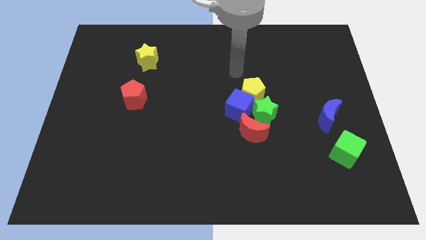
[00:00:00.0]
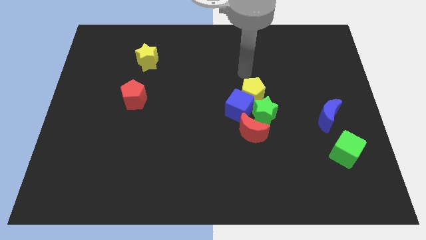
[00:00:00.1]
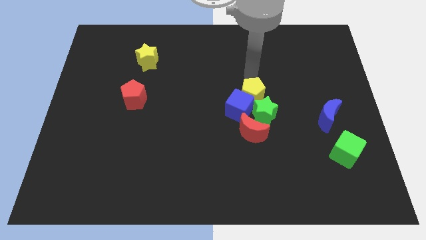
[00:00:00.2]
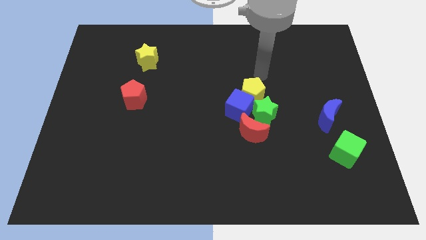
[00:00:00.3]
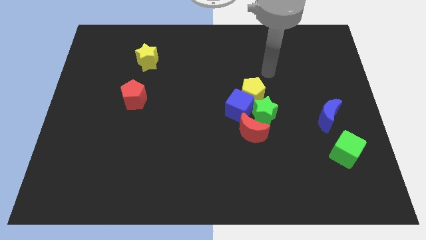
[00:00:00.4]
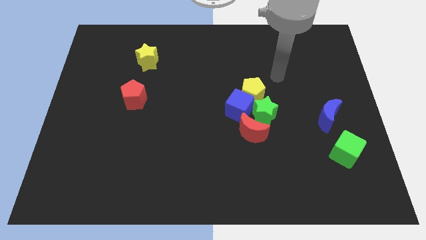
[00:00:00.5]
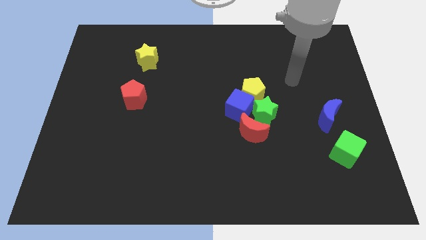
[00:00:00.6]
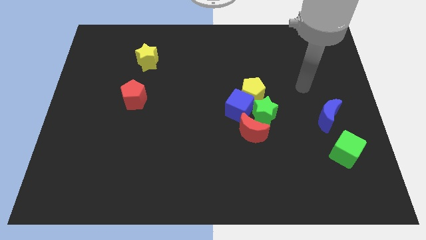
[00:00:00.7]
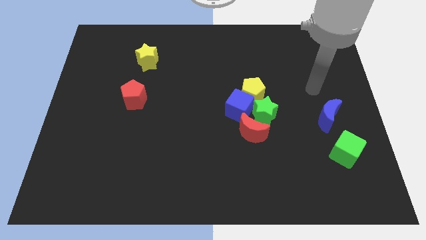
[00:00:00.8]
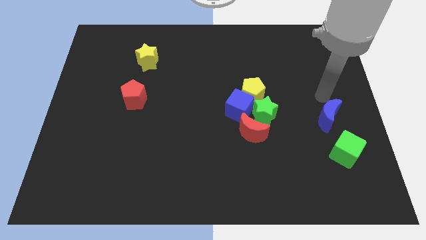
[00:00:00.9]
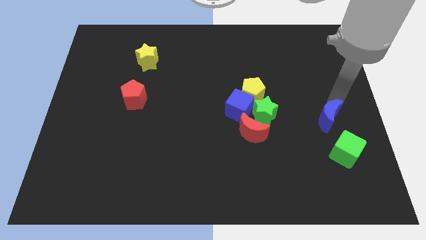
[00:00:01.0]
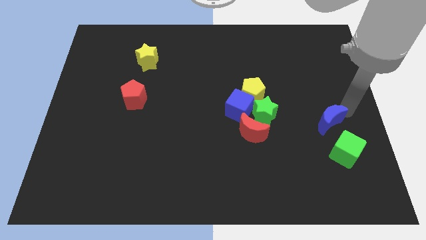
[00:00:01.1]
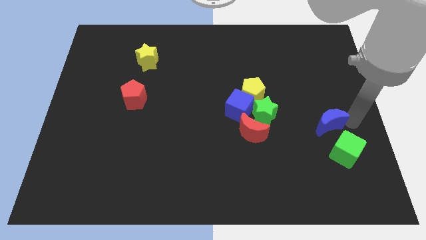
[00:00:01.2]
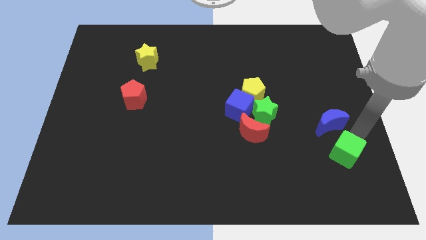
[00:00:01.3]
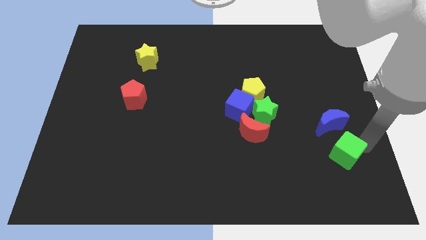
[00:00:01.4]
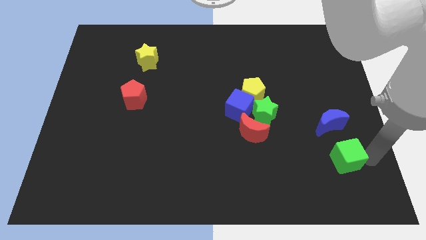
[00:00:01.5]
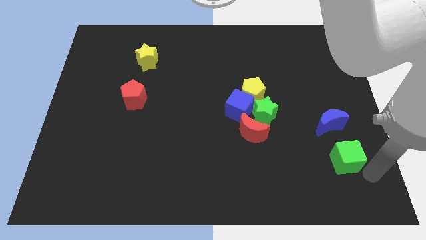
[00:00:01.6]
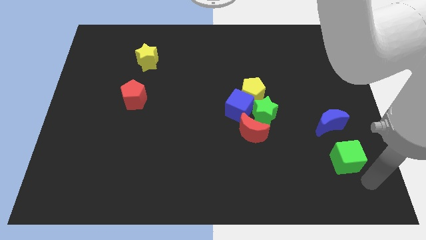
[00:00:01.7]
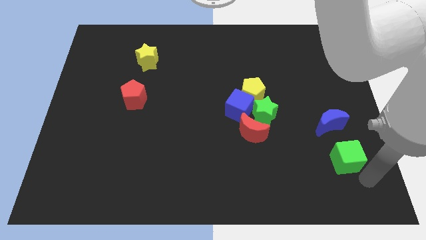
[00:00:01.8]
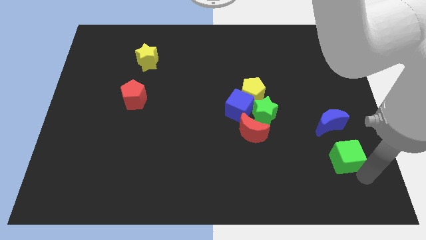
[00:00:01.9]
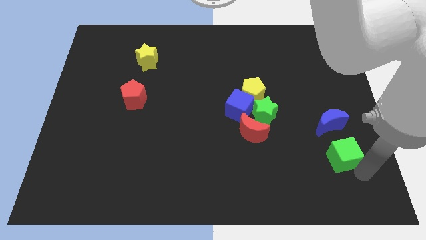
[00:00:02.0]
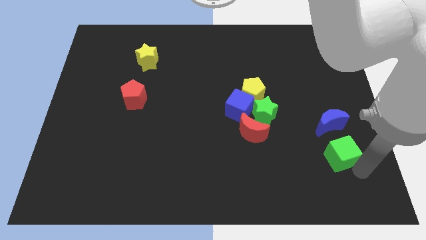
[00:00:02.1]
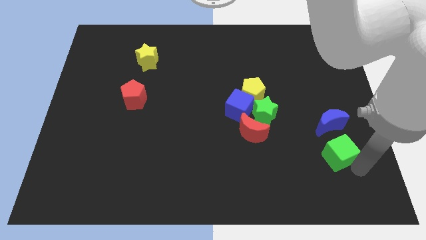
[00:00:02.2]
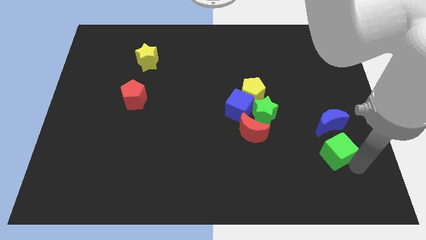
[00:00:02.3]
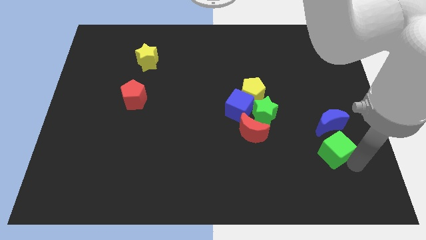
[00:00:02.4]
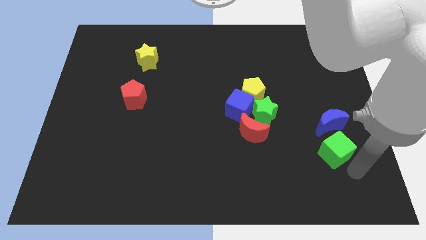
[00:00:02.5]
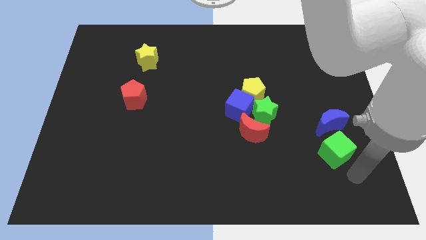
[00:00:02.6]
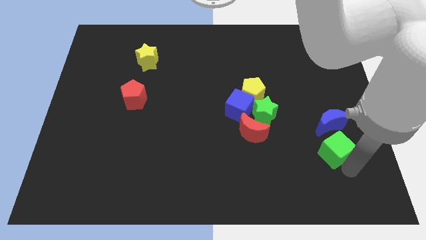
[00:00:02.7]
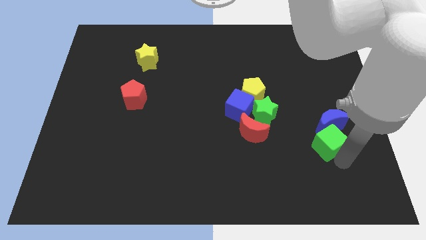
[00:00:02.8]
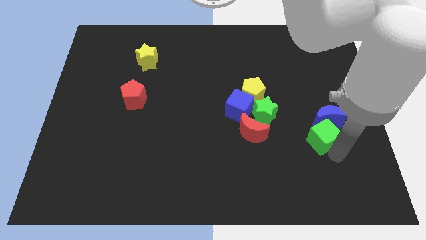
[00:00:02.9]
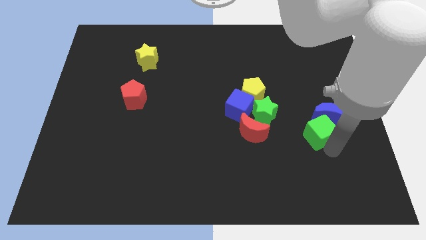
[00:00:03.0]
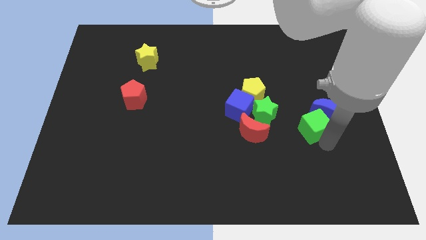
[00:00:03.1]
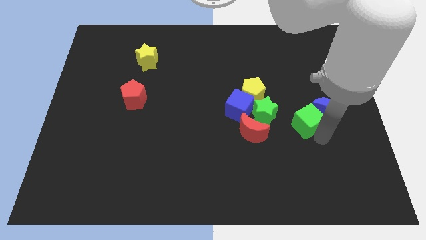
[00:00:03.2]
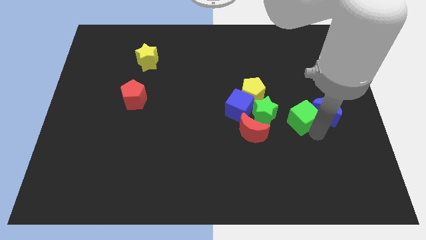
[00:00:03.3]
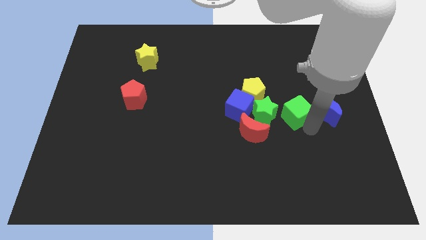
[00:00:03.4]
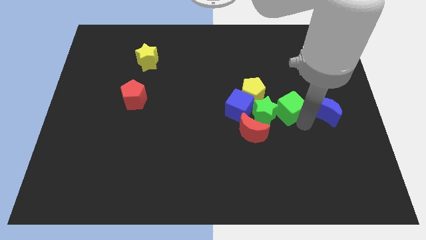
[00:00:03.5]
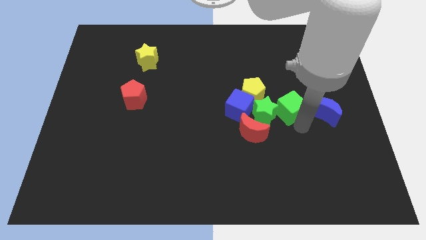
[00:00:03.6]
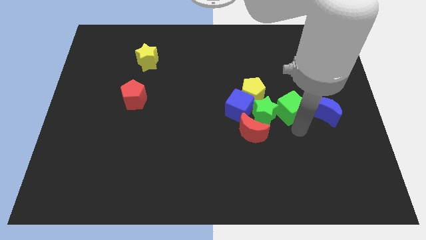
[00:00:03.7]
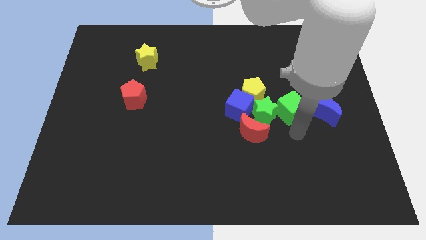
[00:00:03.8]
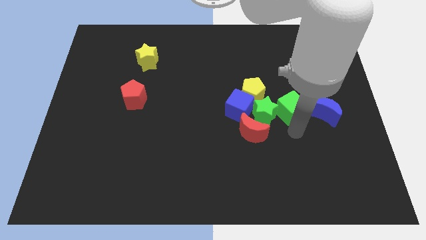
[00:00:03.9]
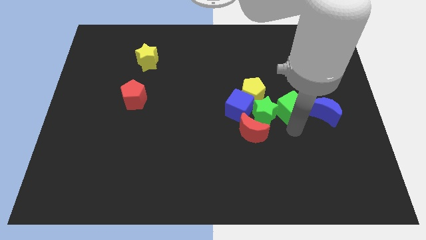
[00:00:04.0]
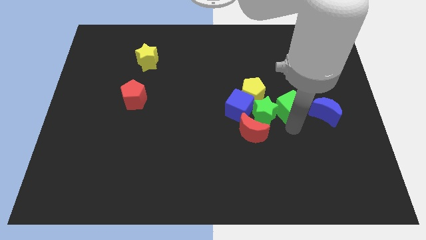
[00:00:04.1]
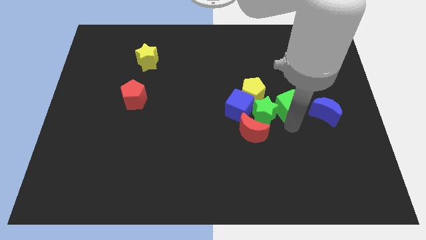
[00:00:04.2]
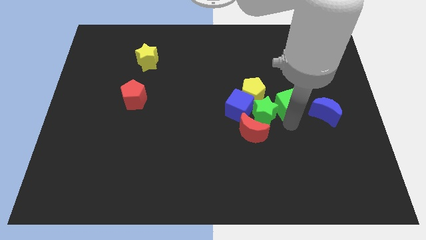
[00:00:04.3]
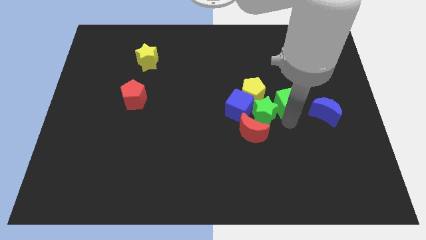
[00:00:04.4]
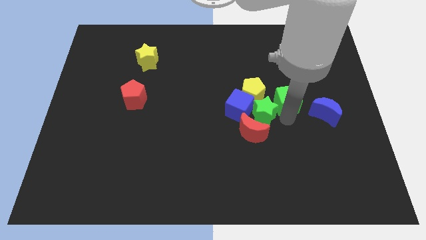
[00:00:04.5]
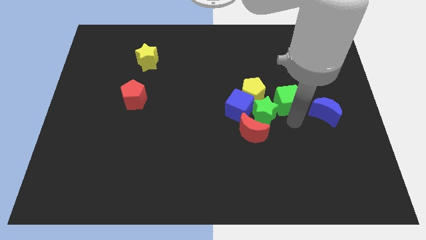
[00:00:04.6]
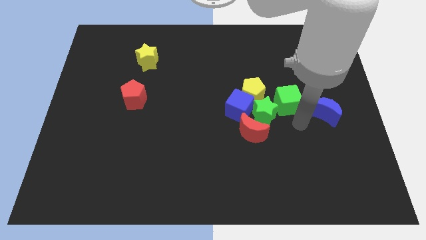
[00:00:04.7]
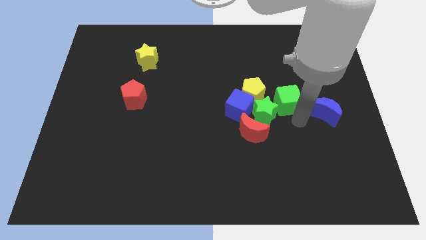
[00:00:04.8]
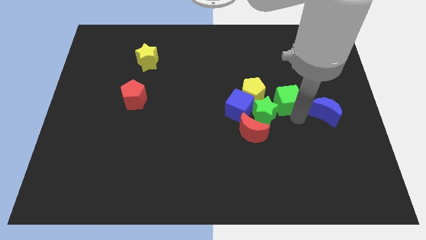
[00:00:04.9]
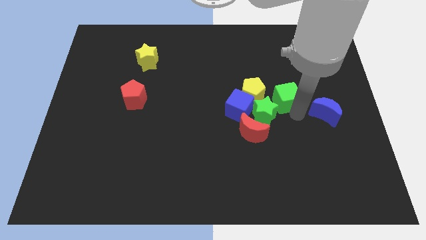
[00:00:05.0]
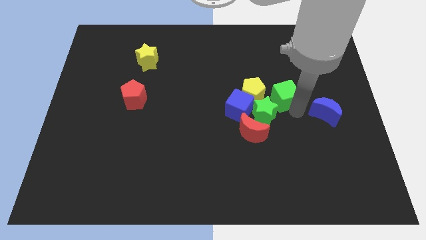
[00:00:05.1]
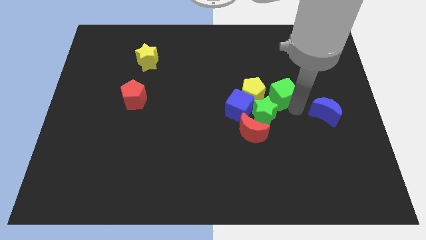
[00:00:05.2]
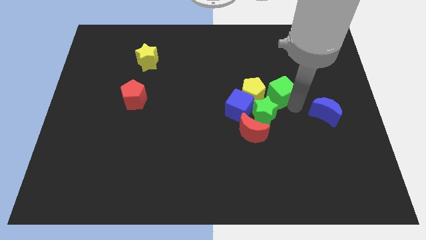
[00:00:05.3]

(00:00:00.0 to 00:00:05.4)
push the green cube diagonally up and to the right of the yellow pentagon

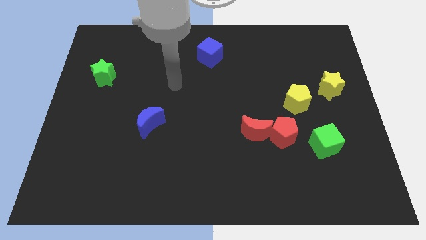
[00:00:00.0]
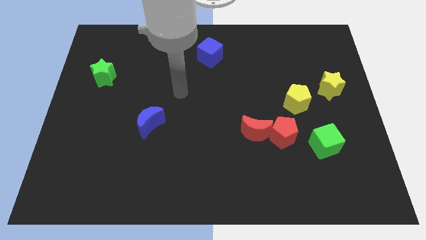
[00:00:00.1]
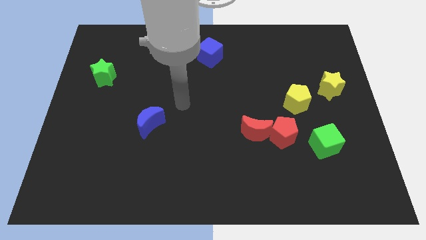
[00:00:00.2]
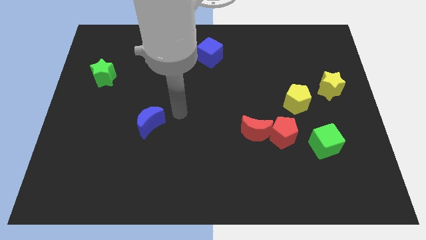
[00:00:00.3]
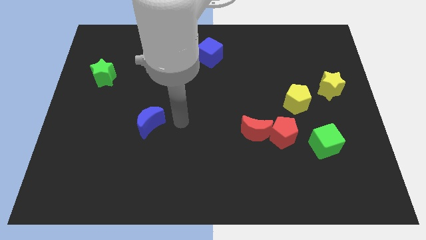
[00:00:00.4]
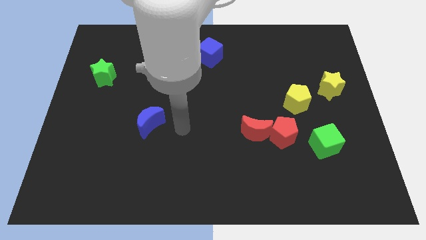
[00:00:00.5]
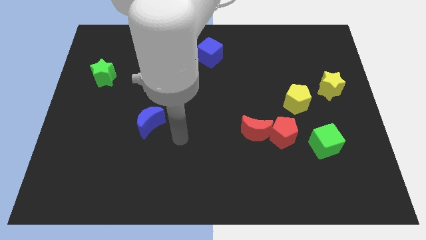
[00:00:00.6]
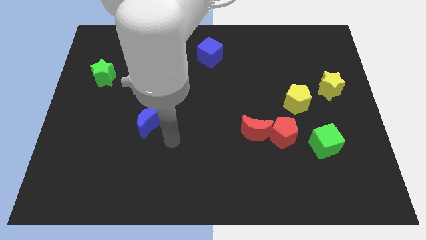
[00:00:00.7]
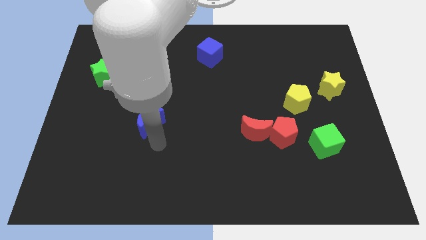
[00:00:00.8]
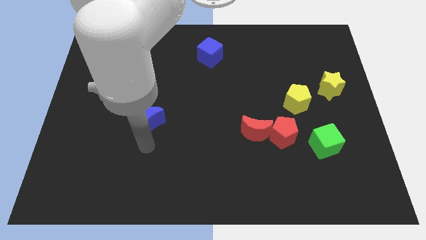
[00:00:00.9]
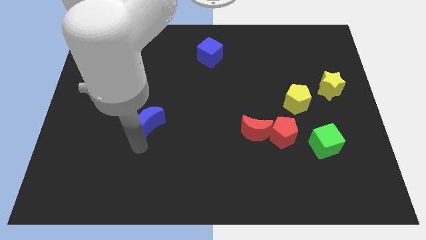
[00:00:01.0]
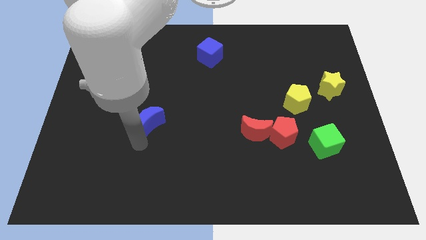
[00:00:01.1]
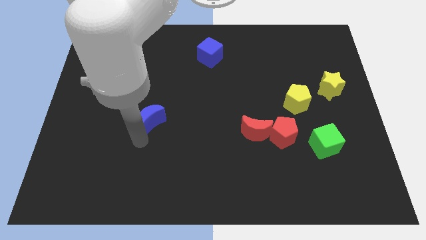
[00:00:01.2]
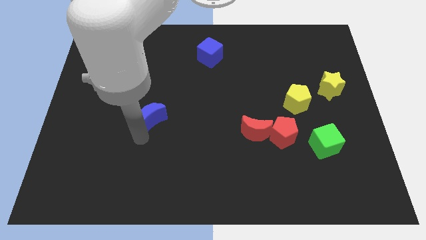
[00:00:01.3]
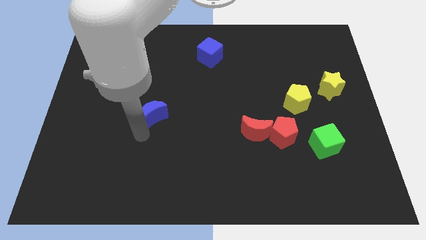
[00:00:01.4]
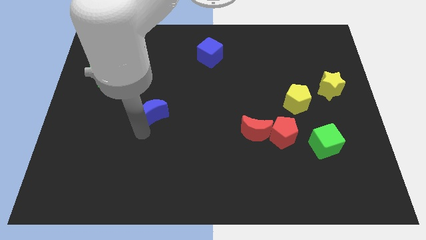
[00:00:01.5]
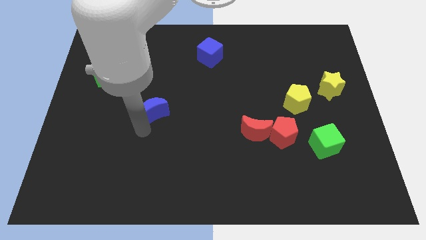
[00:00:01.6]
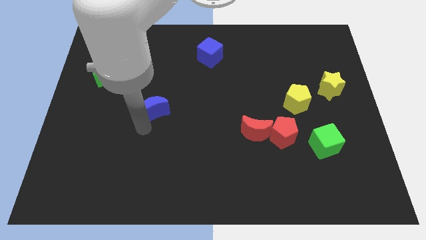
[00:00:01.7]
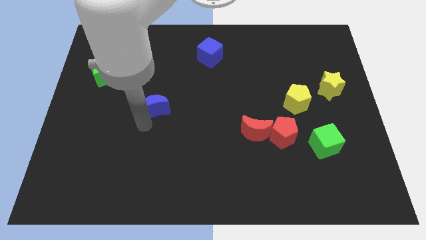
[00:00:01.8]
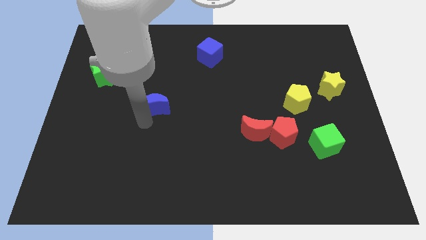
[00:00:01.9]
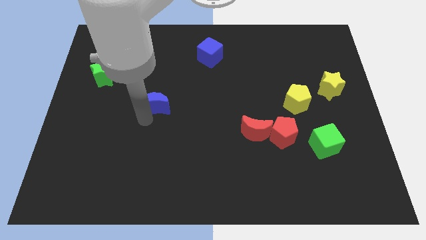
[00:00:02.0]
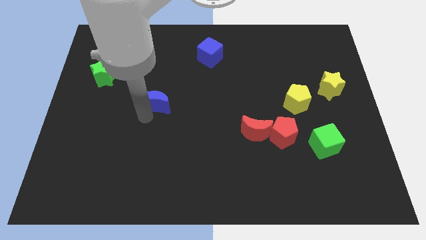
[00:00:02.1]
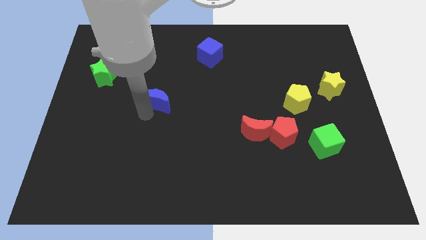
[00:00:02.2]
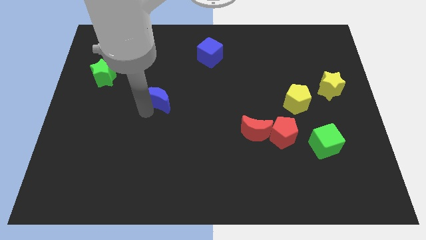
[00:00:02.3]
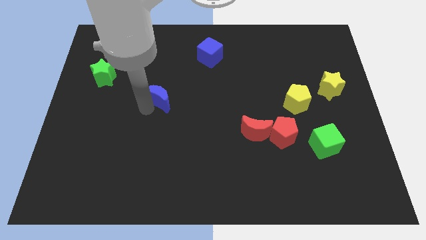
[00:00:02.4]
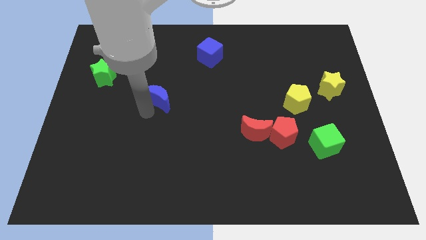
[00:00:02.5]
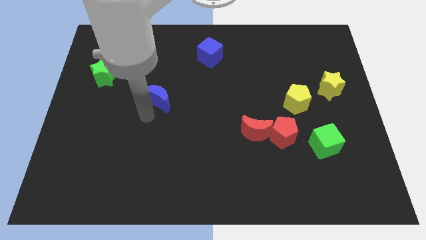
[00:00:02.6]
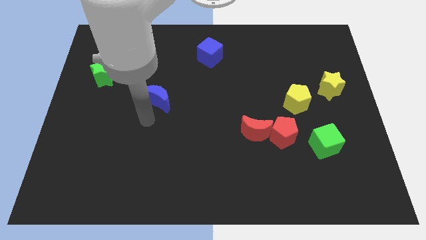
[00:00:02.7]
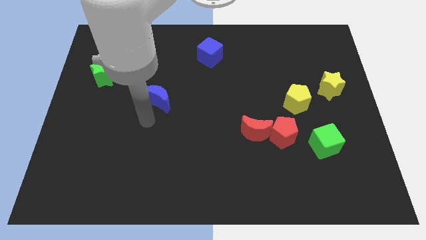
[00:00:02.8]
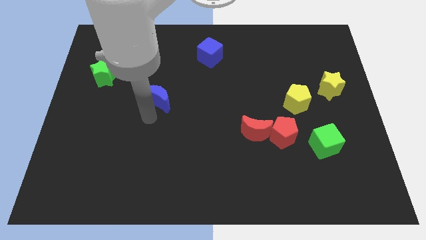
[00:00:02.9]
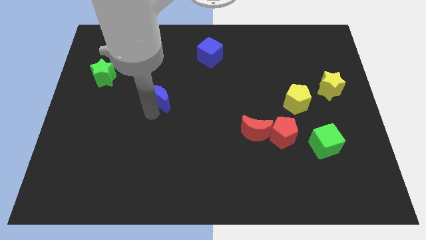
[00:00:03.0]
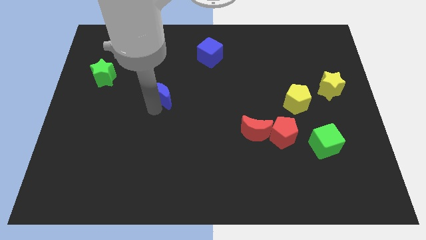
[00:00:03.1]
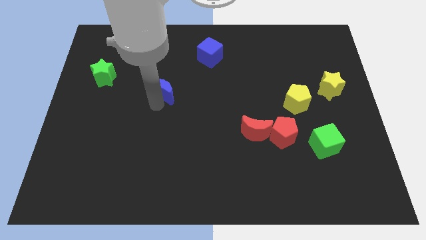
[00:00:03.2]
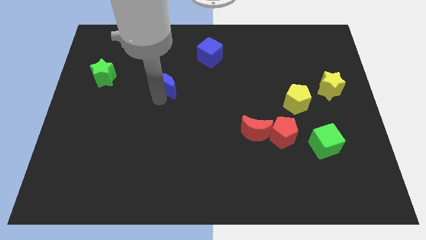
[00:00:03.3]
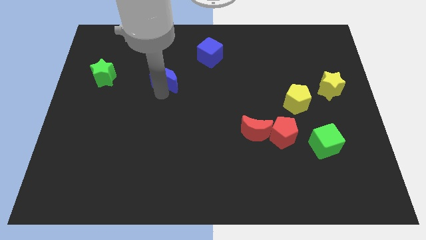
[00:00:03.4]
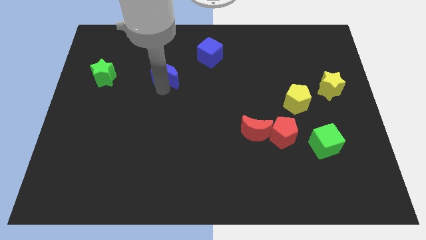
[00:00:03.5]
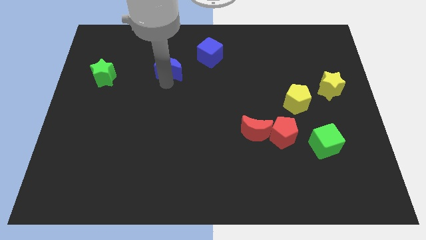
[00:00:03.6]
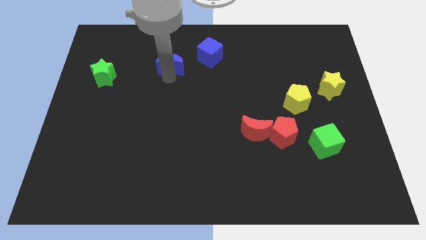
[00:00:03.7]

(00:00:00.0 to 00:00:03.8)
slide the blue moon left of the blue cube
